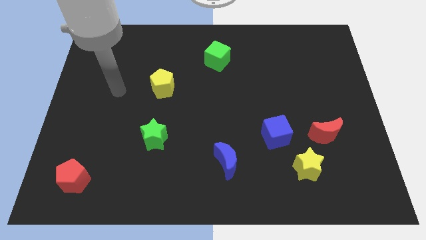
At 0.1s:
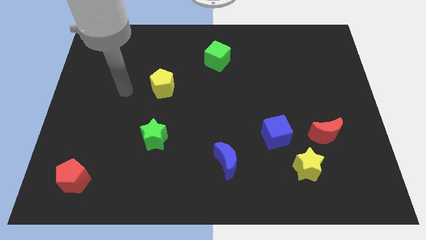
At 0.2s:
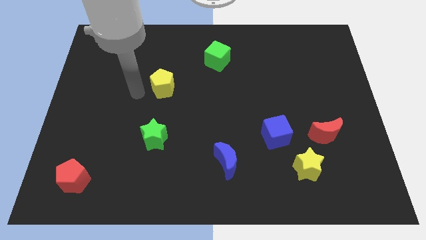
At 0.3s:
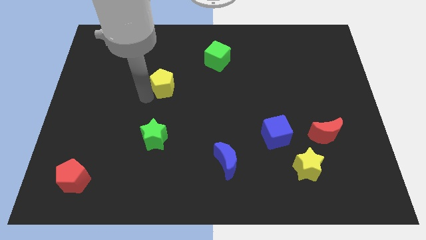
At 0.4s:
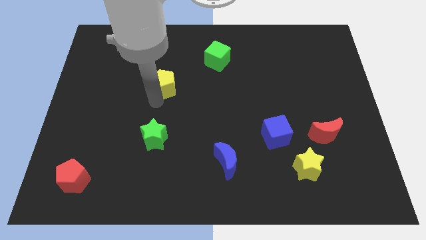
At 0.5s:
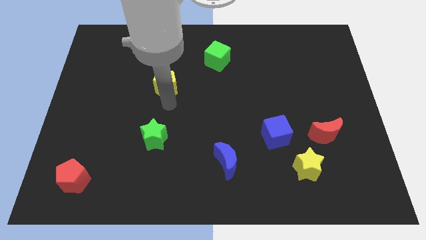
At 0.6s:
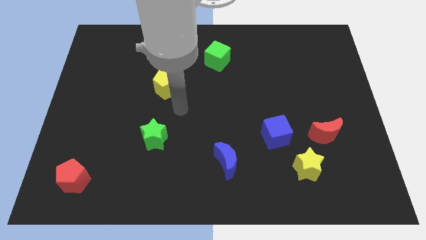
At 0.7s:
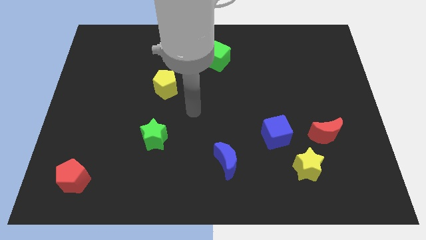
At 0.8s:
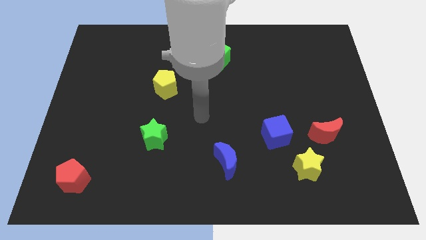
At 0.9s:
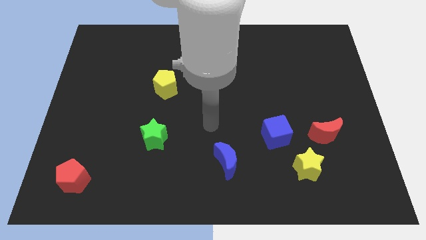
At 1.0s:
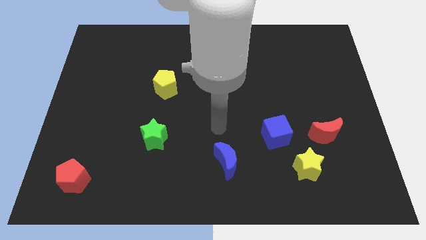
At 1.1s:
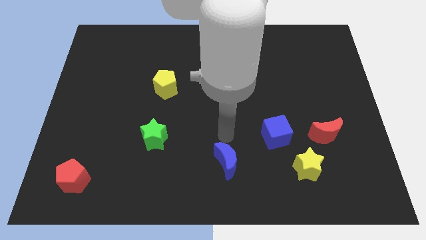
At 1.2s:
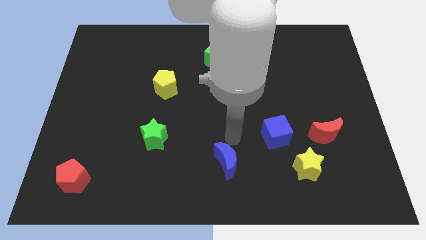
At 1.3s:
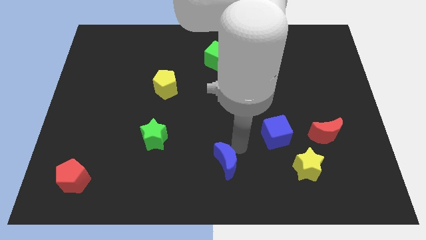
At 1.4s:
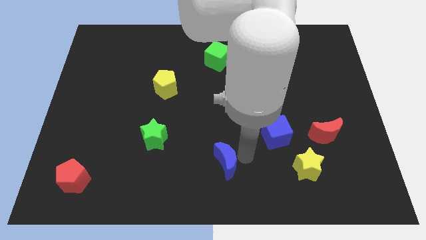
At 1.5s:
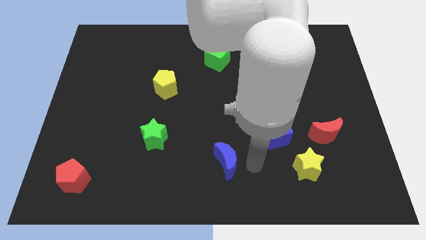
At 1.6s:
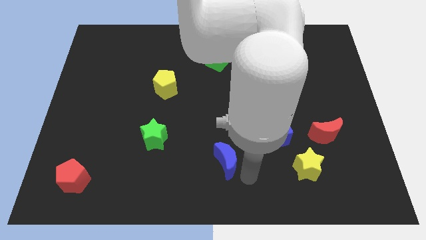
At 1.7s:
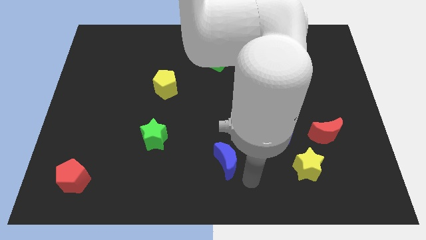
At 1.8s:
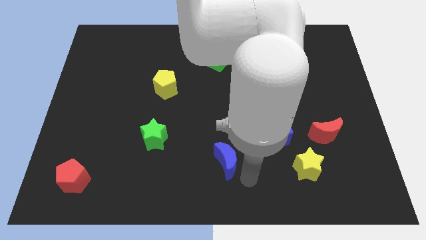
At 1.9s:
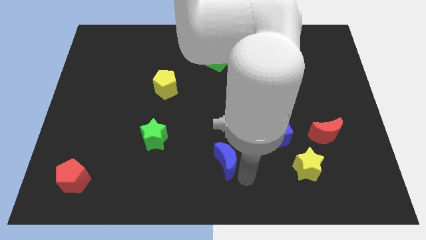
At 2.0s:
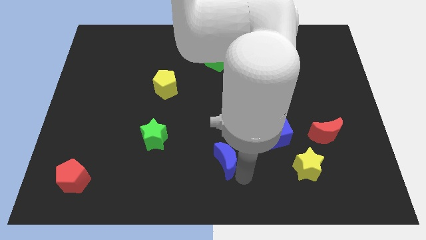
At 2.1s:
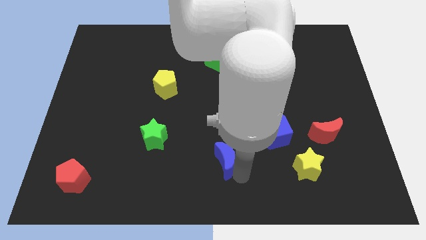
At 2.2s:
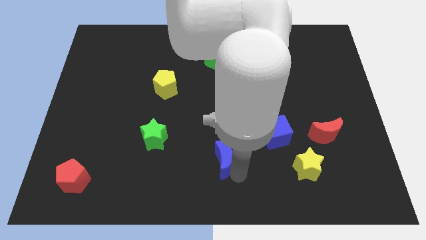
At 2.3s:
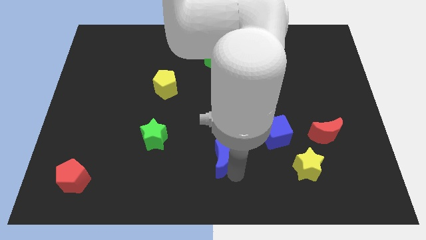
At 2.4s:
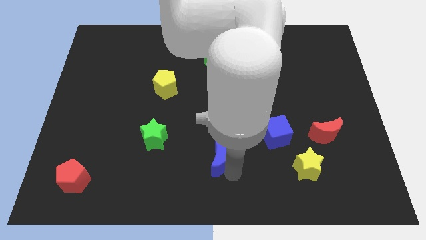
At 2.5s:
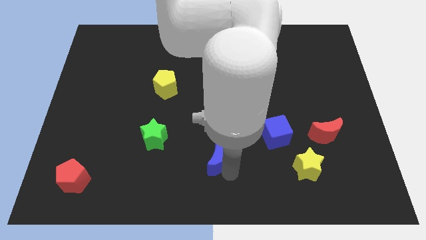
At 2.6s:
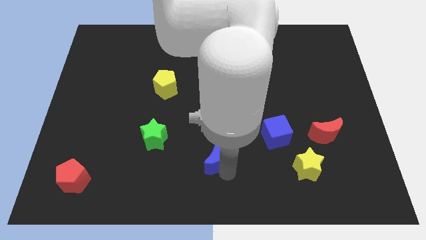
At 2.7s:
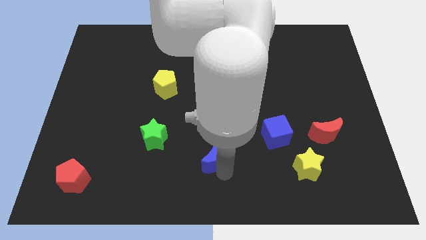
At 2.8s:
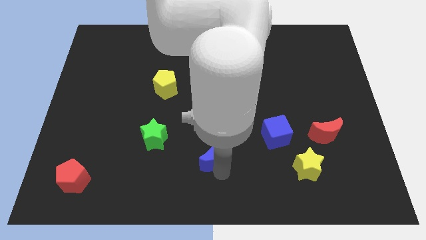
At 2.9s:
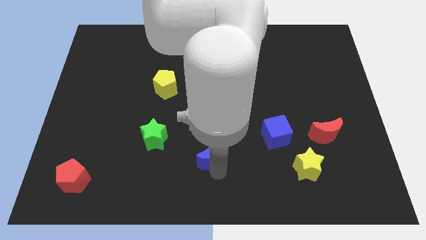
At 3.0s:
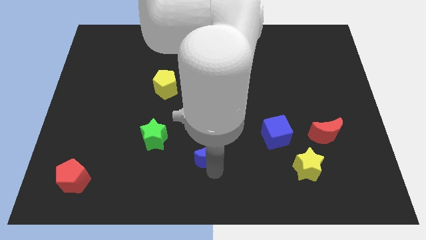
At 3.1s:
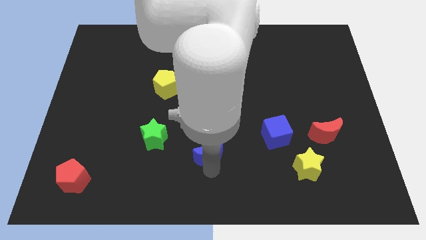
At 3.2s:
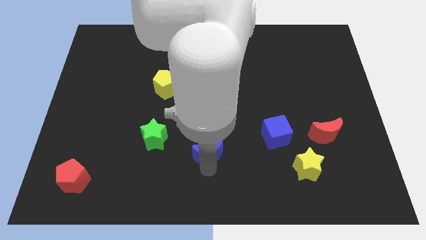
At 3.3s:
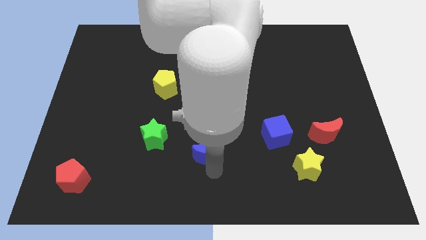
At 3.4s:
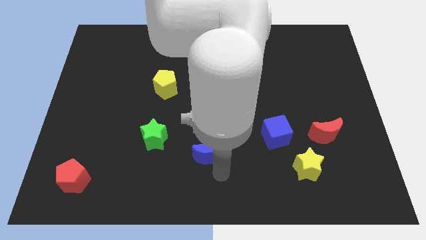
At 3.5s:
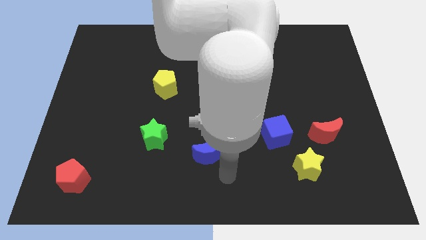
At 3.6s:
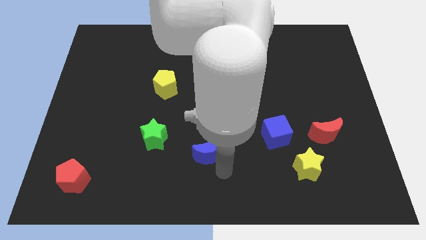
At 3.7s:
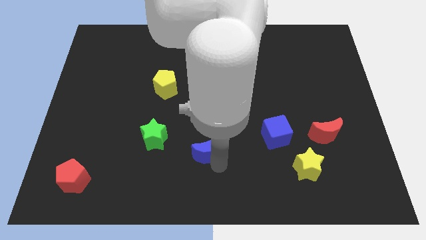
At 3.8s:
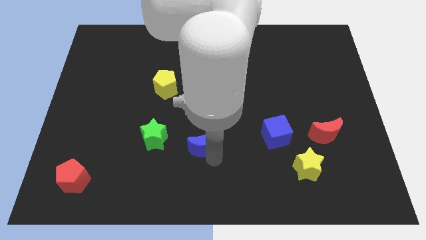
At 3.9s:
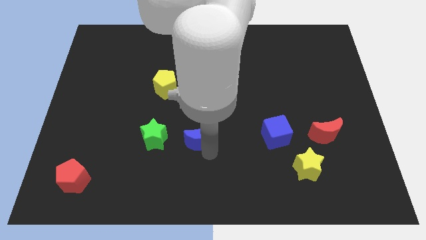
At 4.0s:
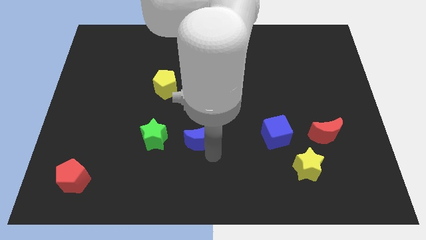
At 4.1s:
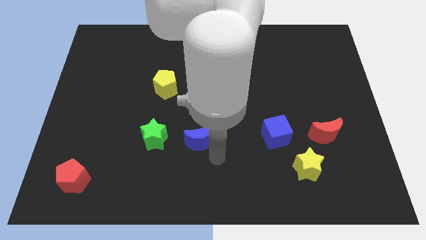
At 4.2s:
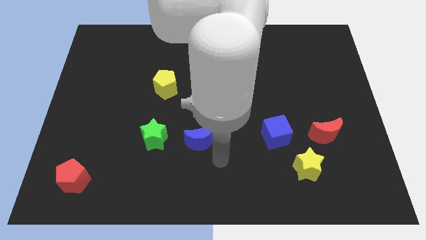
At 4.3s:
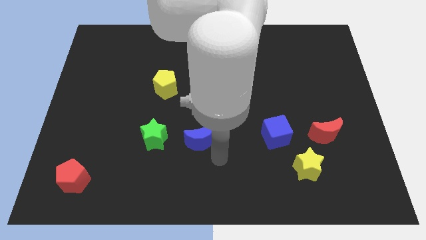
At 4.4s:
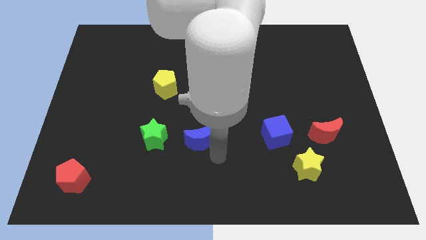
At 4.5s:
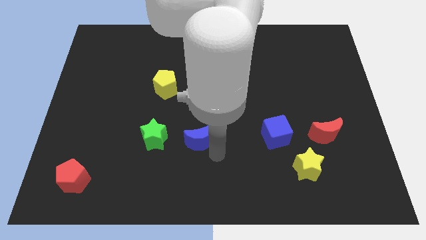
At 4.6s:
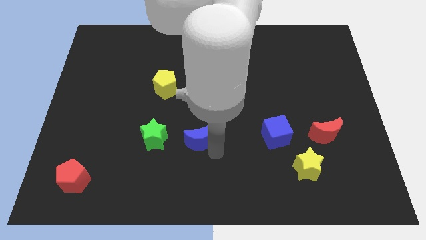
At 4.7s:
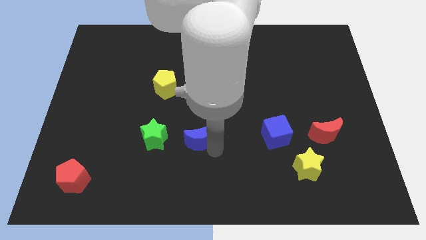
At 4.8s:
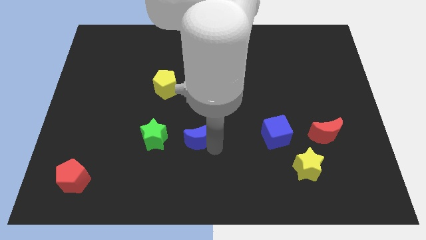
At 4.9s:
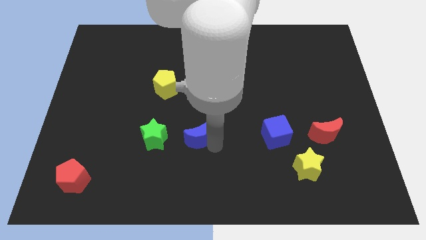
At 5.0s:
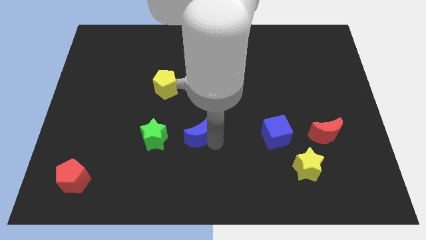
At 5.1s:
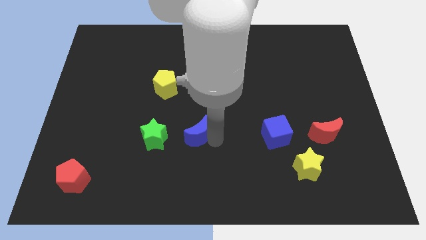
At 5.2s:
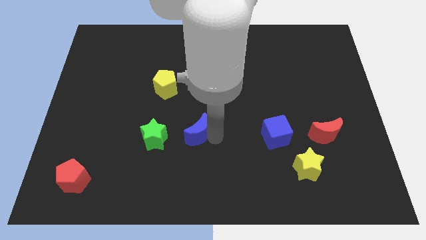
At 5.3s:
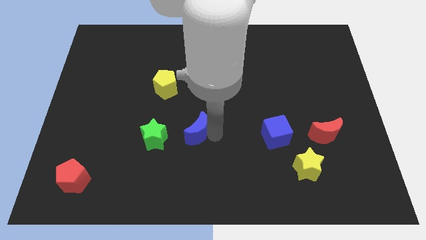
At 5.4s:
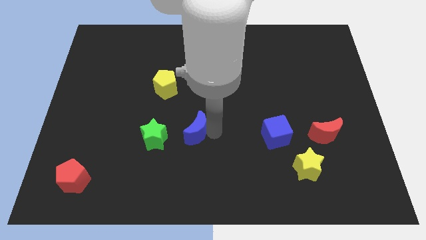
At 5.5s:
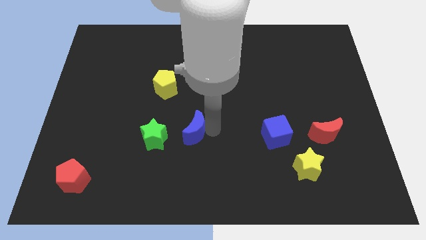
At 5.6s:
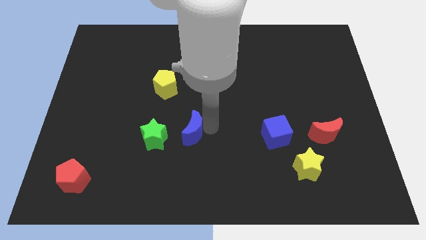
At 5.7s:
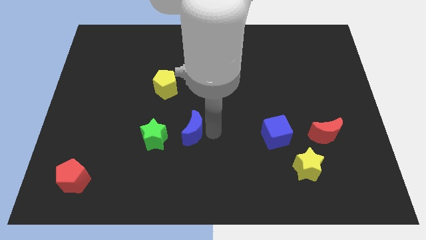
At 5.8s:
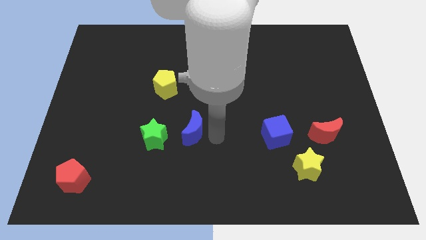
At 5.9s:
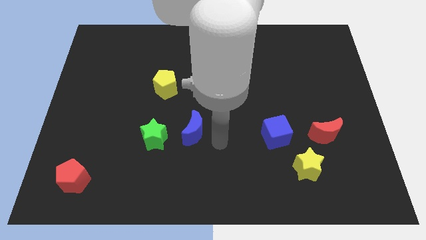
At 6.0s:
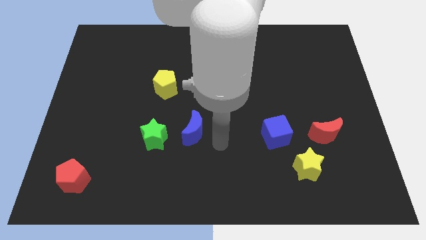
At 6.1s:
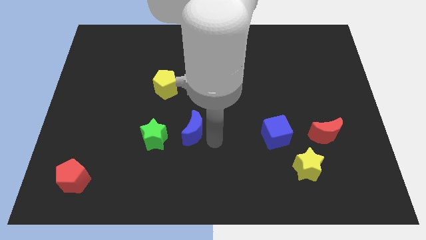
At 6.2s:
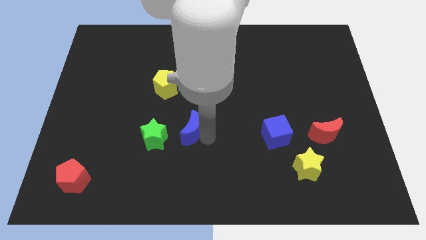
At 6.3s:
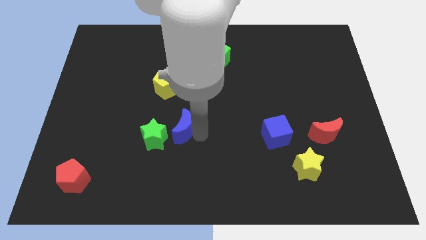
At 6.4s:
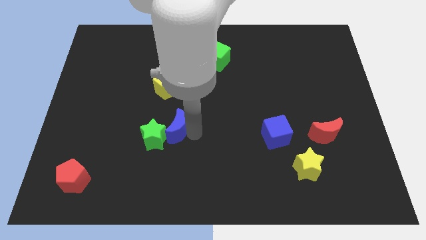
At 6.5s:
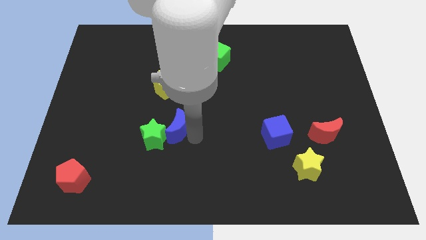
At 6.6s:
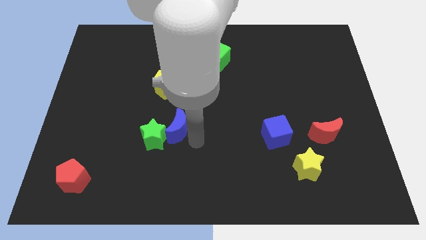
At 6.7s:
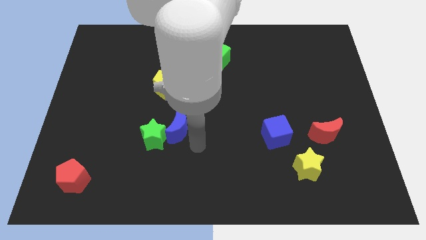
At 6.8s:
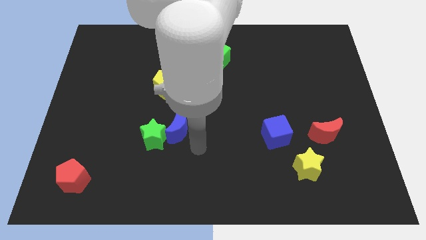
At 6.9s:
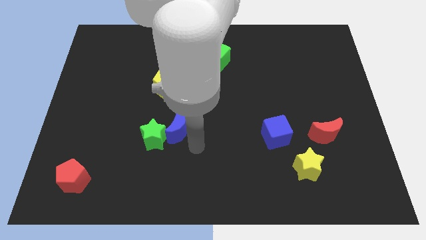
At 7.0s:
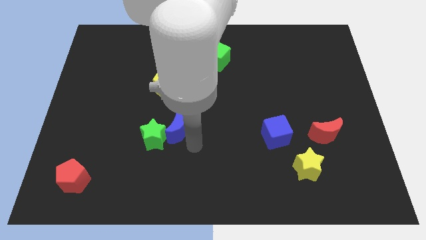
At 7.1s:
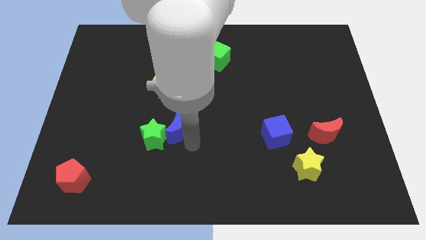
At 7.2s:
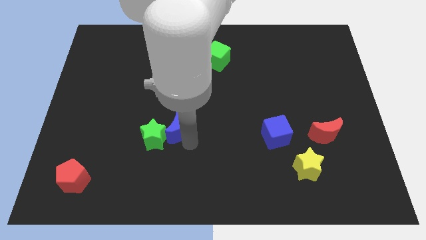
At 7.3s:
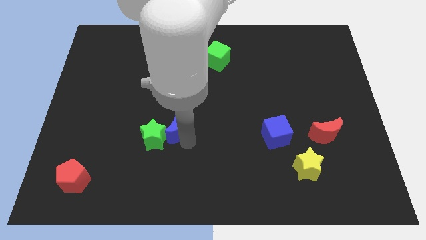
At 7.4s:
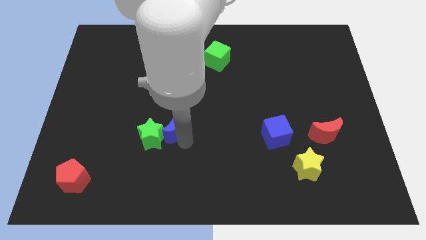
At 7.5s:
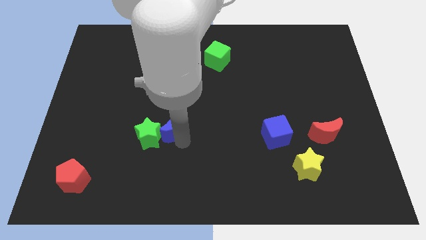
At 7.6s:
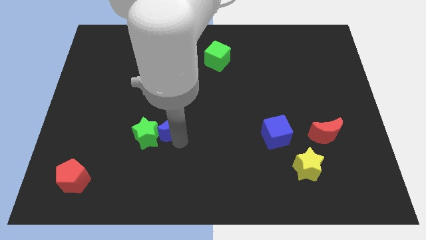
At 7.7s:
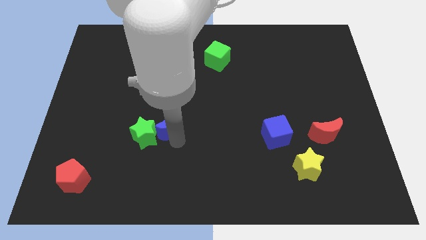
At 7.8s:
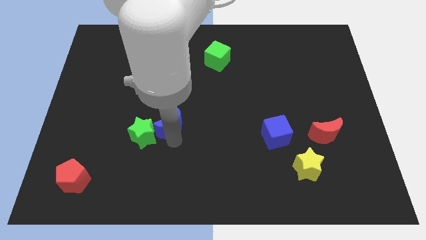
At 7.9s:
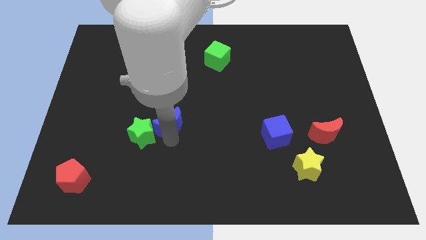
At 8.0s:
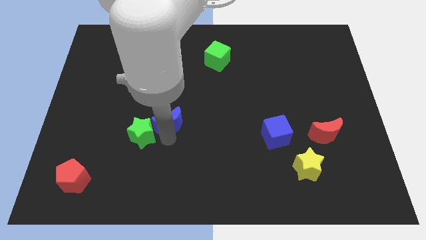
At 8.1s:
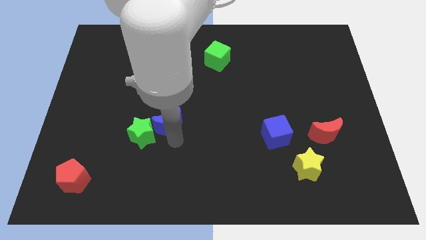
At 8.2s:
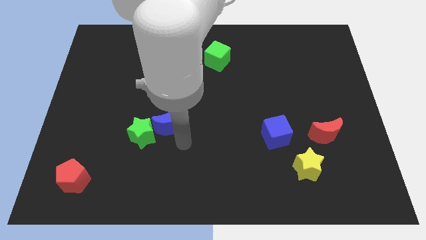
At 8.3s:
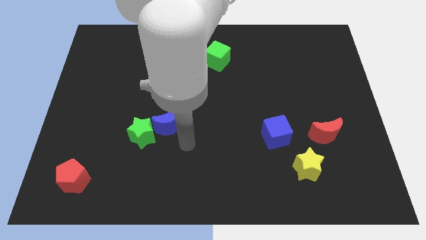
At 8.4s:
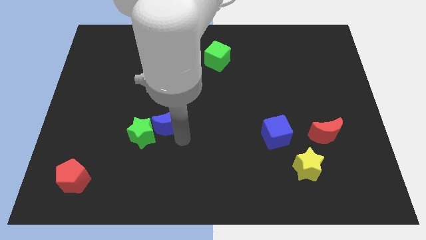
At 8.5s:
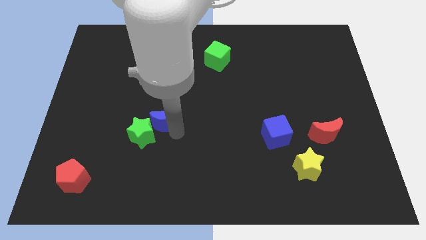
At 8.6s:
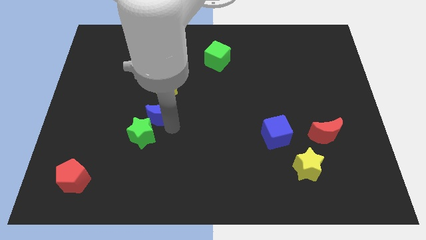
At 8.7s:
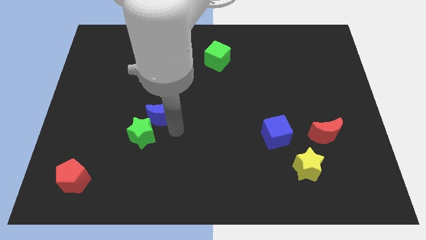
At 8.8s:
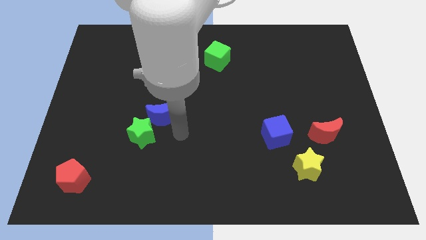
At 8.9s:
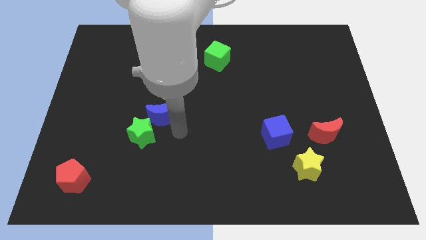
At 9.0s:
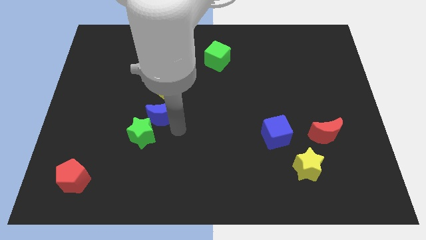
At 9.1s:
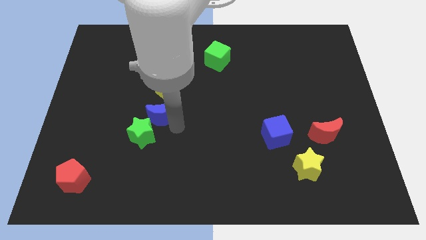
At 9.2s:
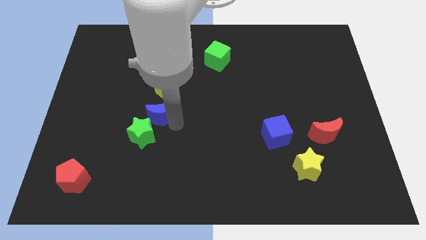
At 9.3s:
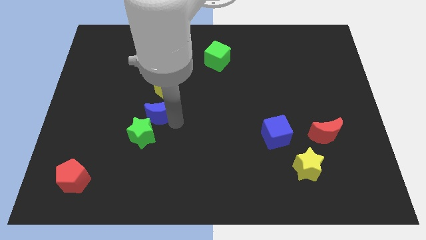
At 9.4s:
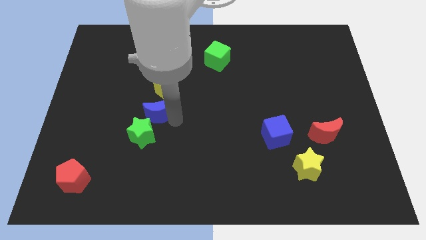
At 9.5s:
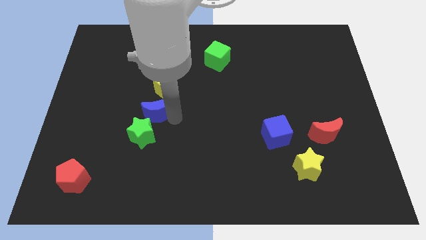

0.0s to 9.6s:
move the blue moon upwards and left
